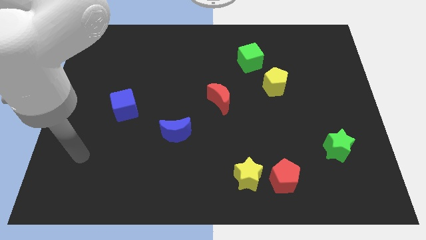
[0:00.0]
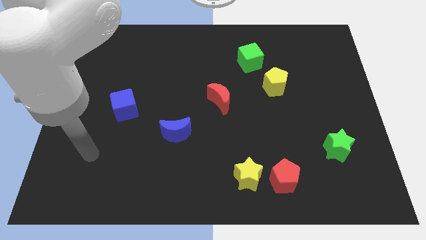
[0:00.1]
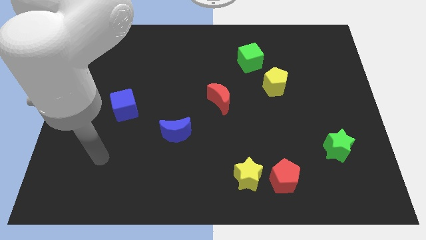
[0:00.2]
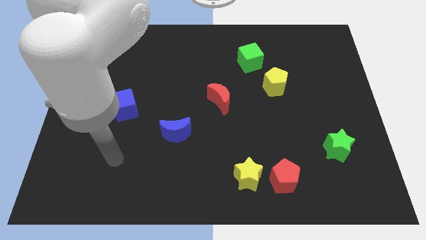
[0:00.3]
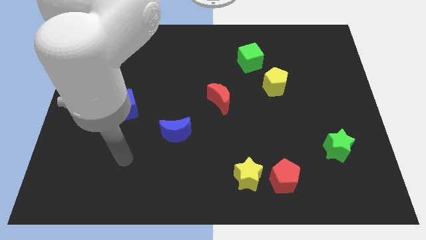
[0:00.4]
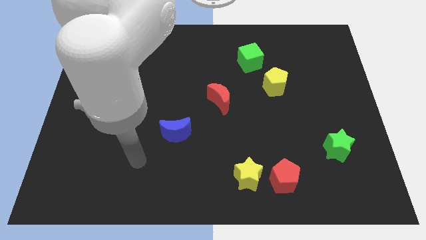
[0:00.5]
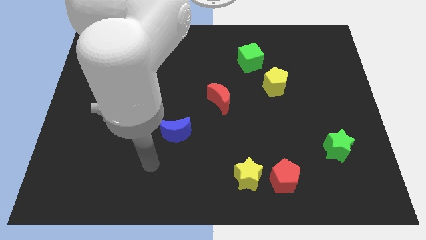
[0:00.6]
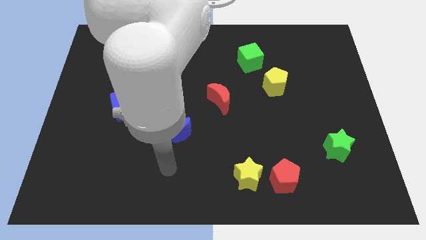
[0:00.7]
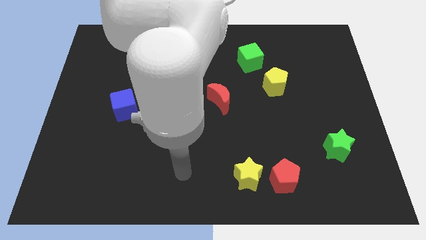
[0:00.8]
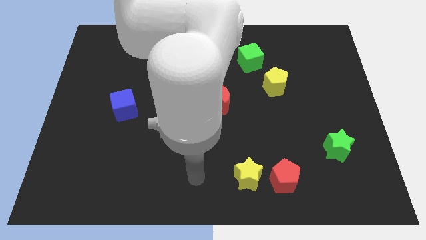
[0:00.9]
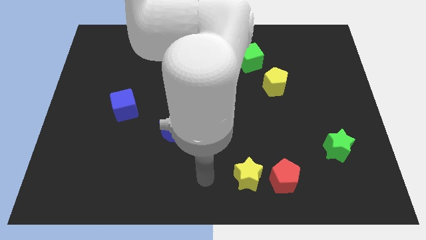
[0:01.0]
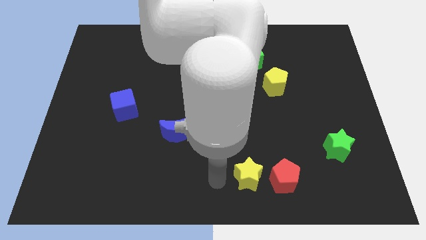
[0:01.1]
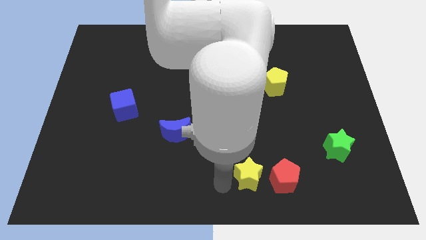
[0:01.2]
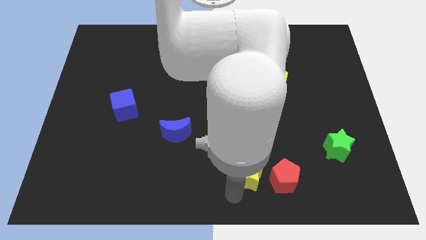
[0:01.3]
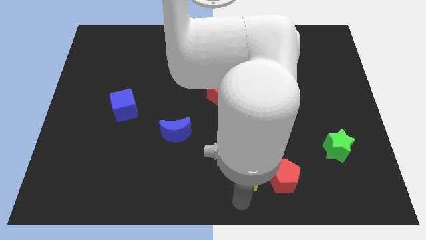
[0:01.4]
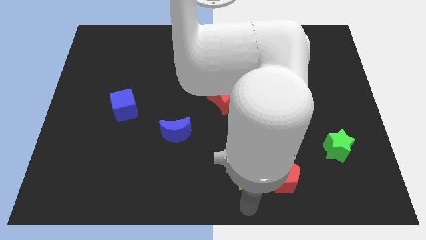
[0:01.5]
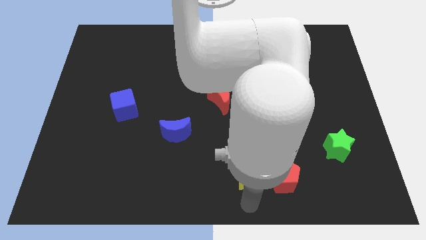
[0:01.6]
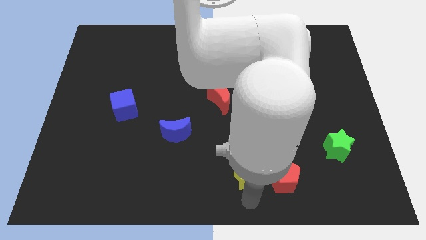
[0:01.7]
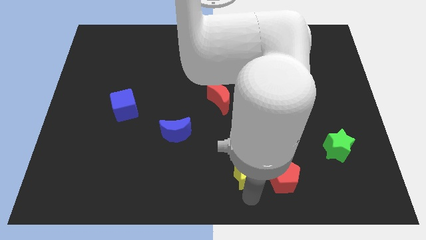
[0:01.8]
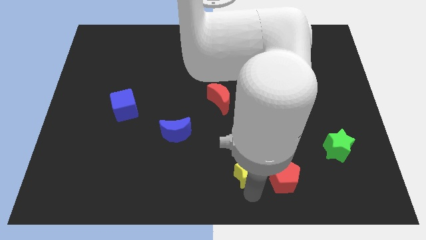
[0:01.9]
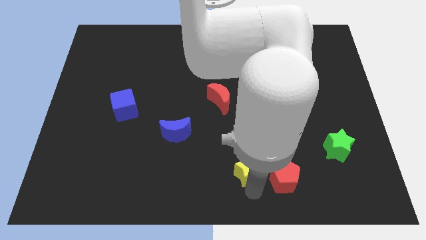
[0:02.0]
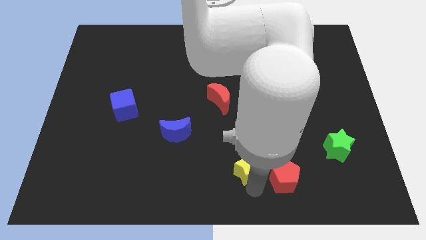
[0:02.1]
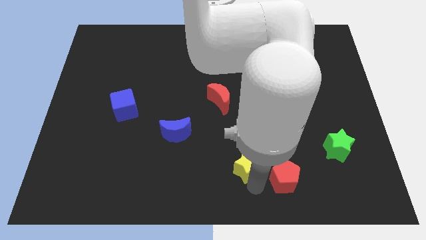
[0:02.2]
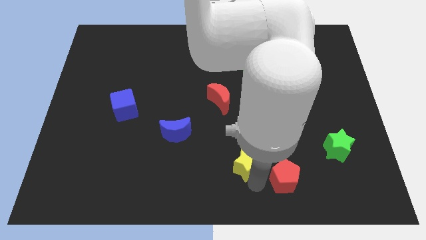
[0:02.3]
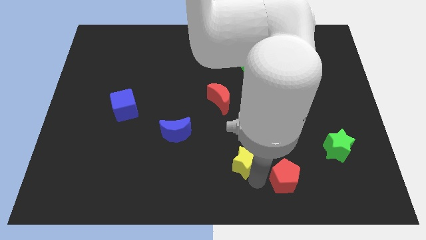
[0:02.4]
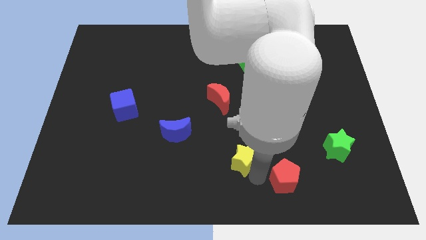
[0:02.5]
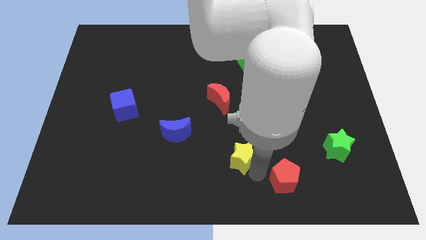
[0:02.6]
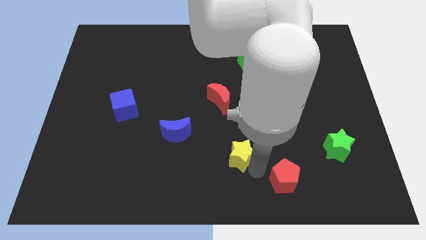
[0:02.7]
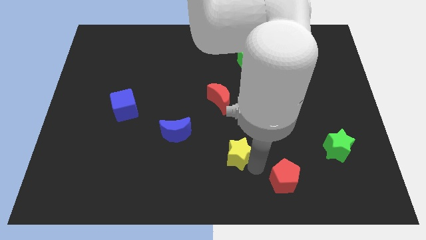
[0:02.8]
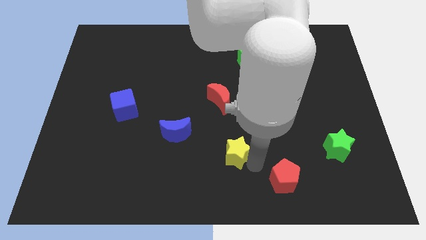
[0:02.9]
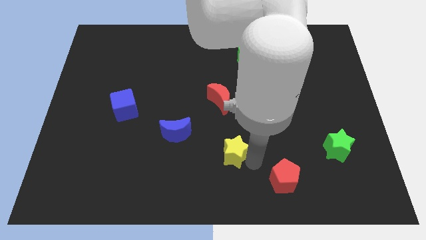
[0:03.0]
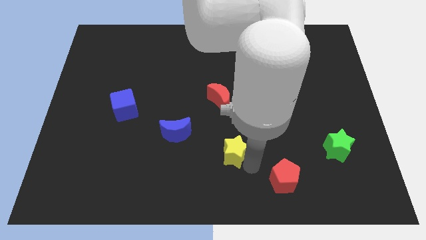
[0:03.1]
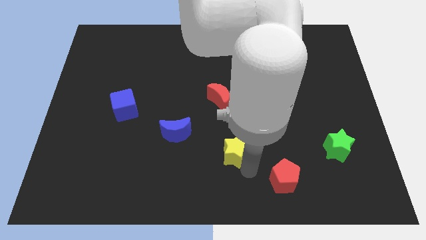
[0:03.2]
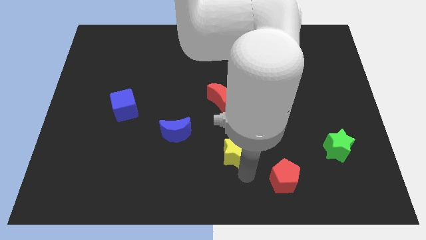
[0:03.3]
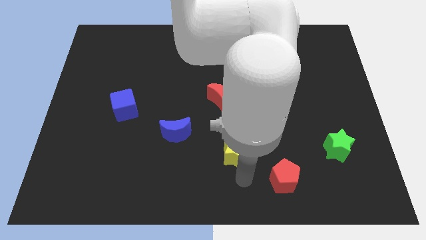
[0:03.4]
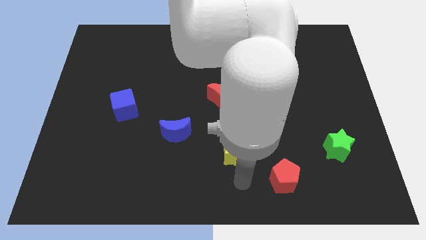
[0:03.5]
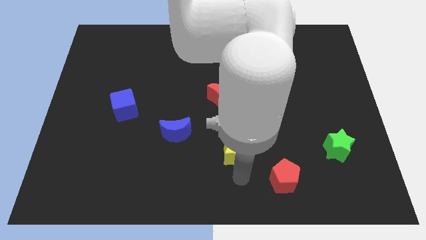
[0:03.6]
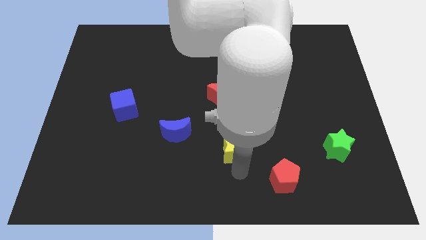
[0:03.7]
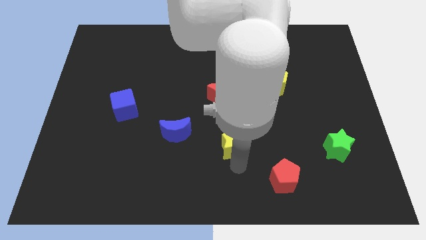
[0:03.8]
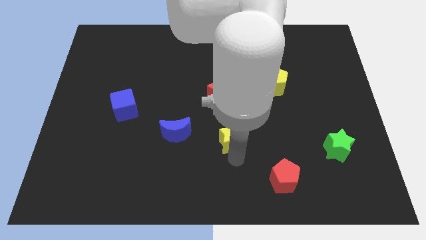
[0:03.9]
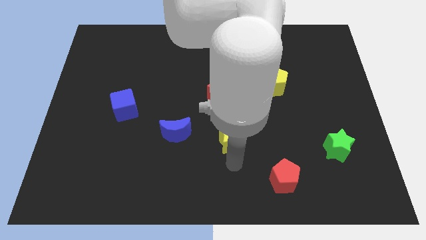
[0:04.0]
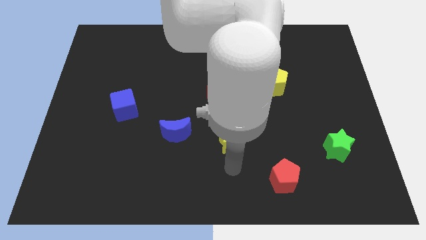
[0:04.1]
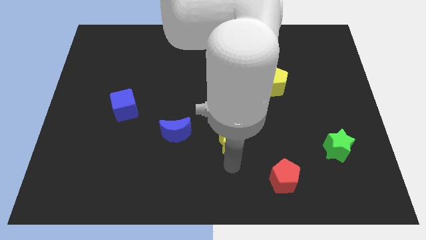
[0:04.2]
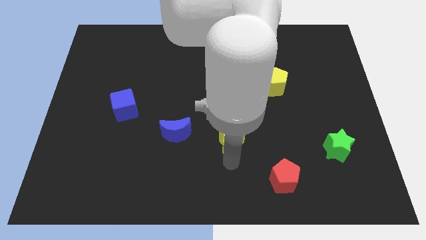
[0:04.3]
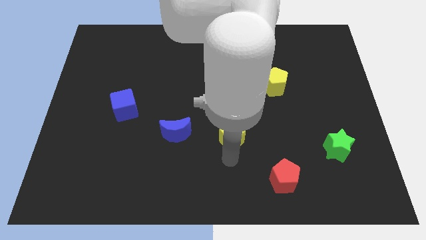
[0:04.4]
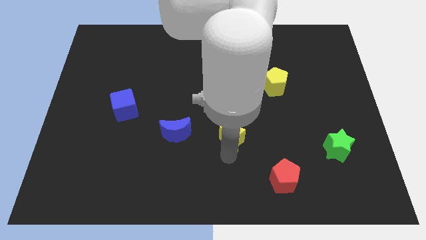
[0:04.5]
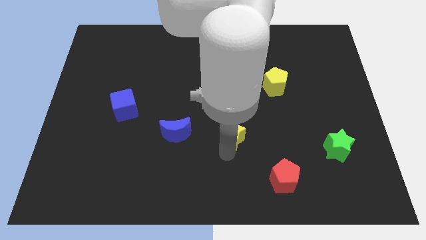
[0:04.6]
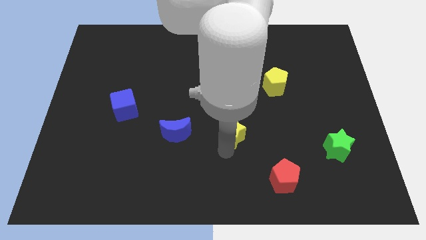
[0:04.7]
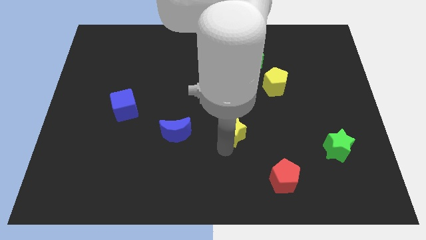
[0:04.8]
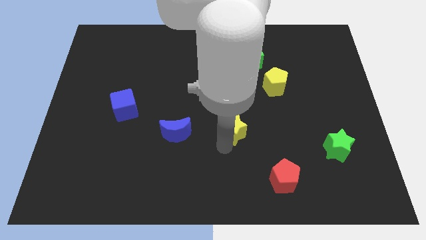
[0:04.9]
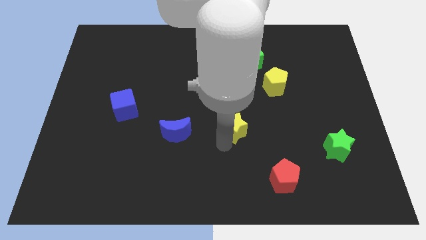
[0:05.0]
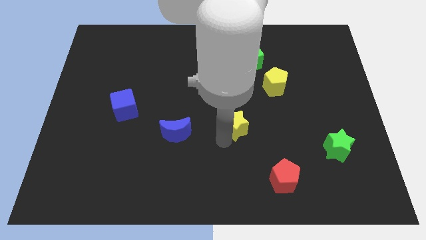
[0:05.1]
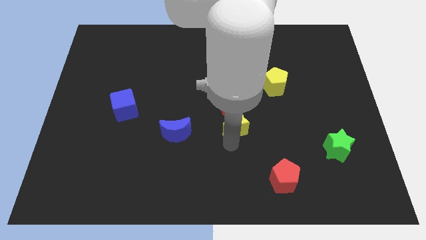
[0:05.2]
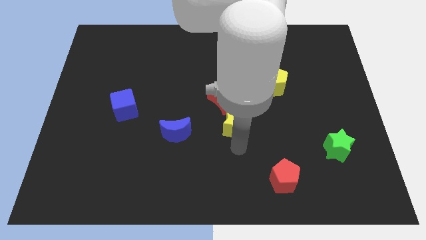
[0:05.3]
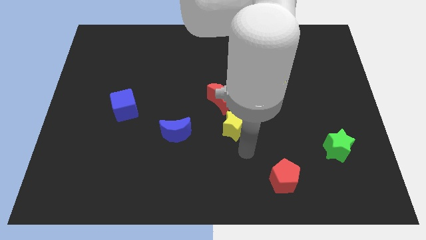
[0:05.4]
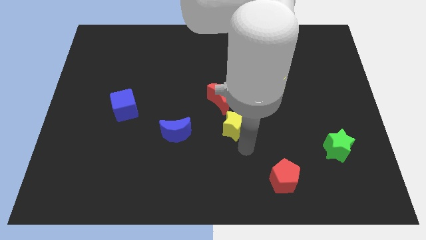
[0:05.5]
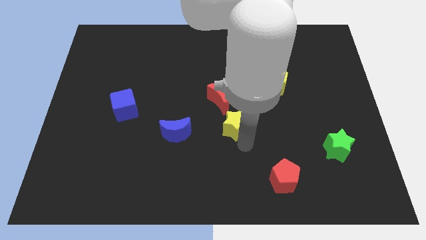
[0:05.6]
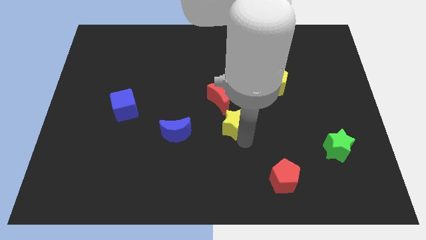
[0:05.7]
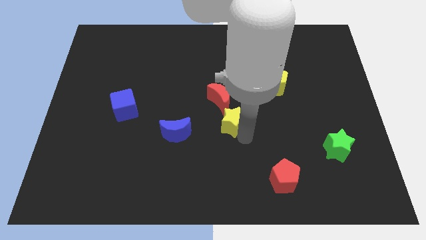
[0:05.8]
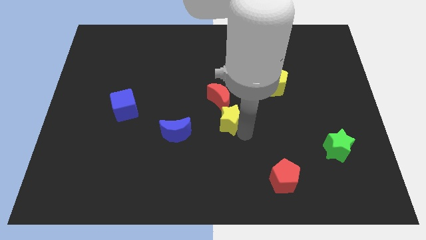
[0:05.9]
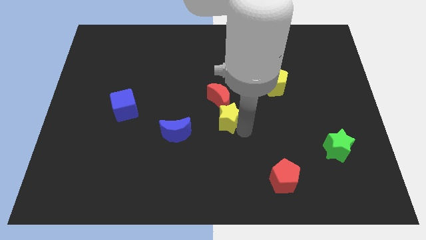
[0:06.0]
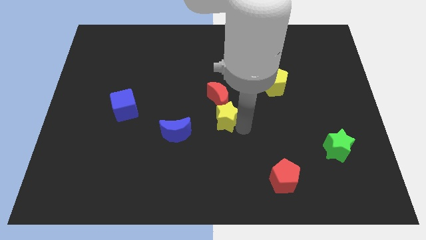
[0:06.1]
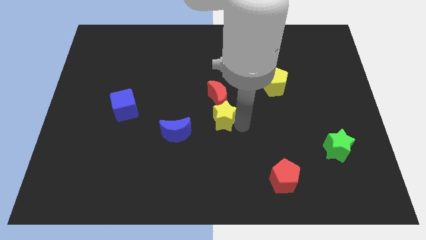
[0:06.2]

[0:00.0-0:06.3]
push the yellow star towards the red moon
